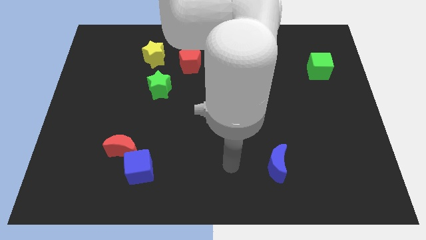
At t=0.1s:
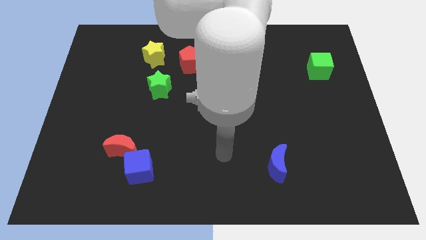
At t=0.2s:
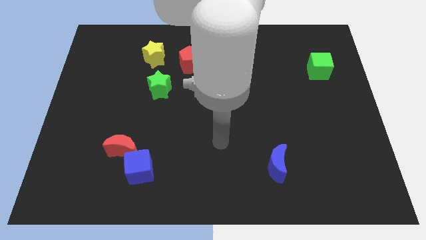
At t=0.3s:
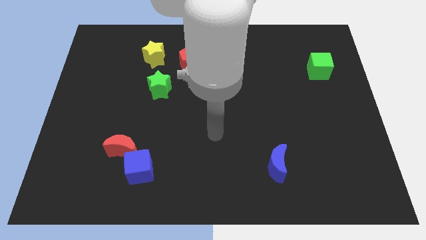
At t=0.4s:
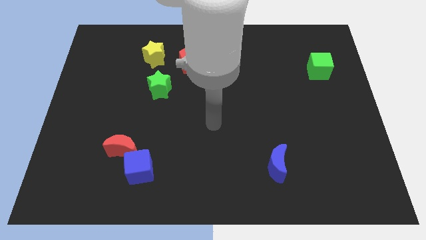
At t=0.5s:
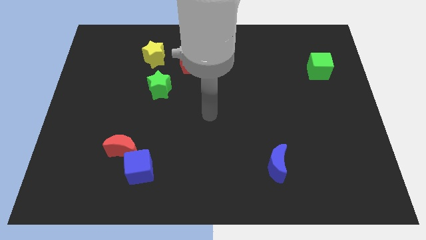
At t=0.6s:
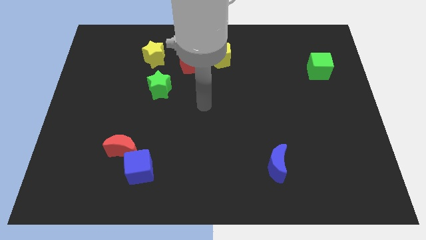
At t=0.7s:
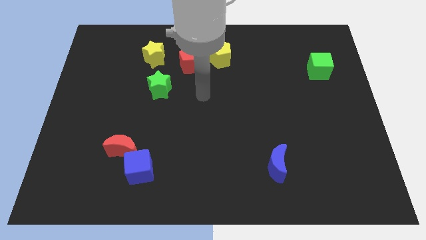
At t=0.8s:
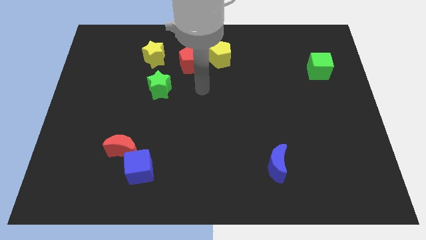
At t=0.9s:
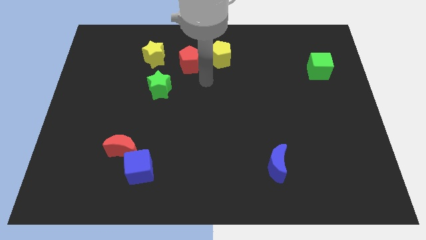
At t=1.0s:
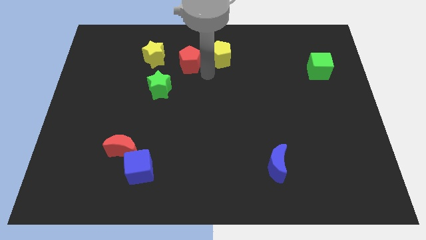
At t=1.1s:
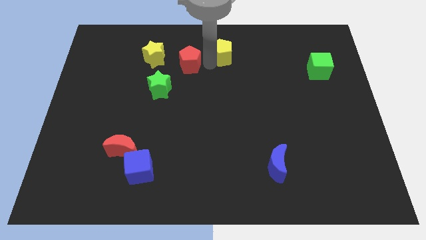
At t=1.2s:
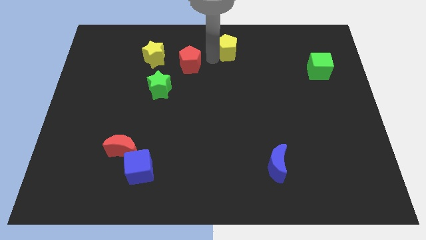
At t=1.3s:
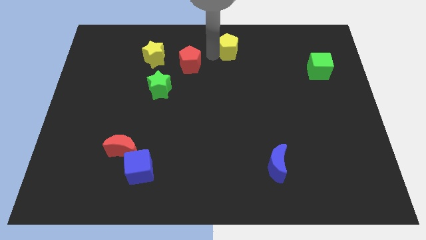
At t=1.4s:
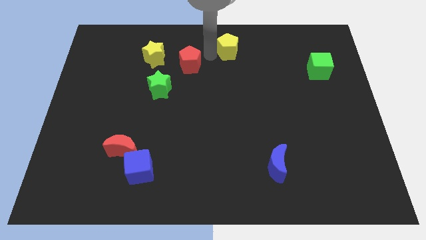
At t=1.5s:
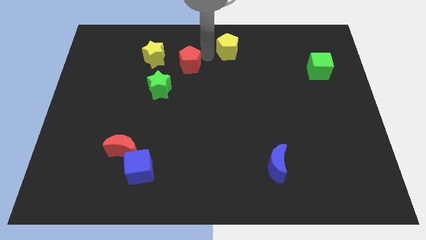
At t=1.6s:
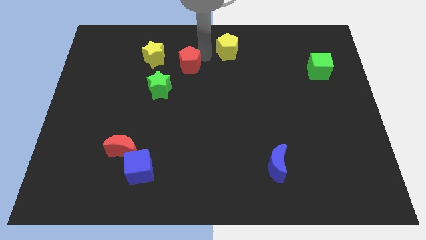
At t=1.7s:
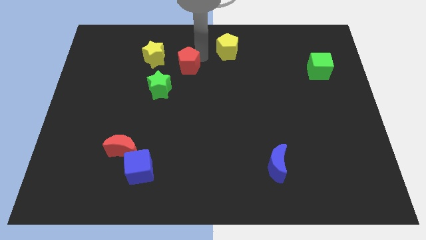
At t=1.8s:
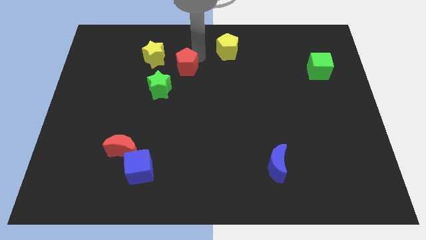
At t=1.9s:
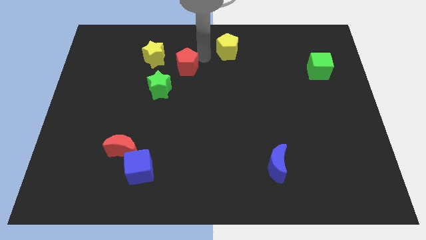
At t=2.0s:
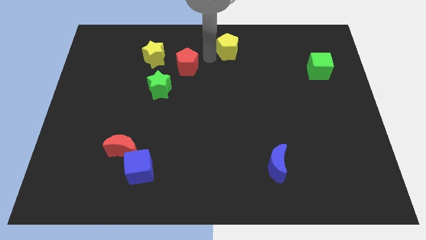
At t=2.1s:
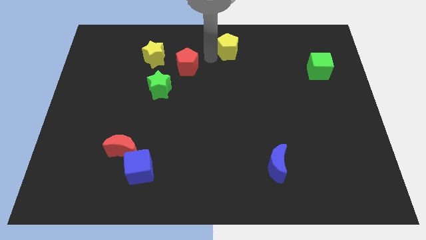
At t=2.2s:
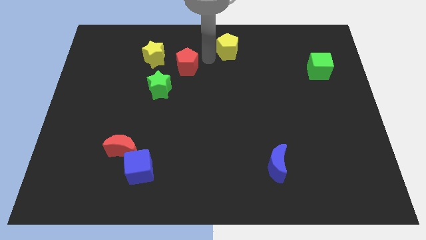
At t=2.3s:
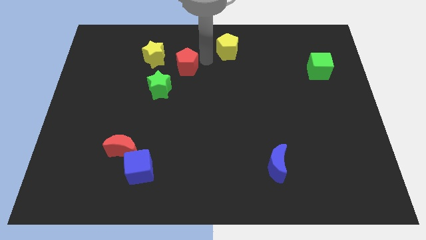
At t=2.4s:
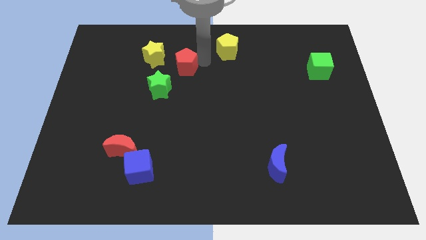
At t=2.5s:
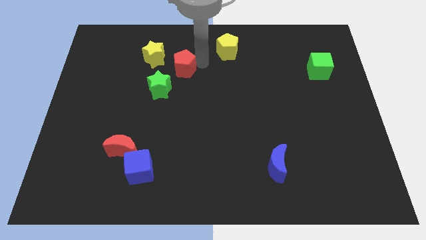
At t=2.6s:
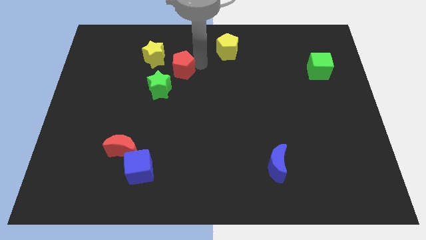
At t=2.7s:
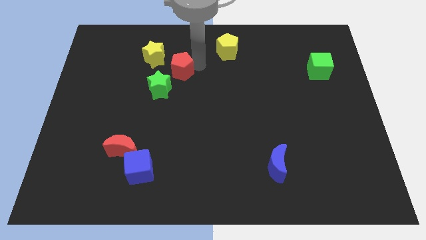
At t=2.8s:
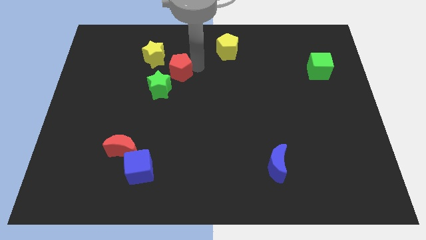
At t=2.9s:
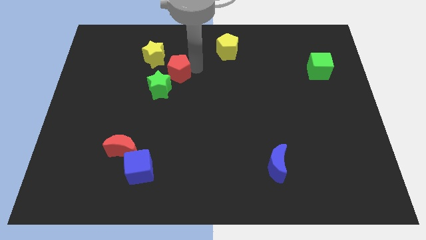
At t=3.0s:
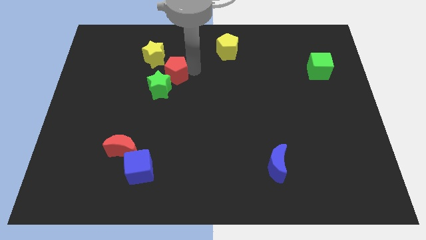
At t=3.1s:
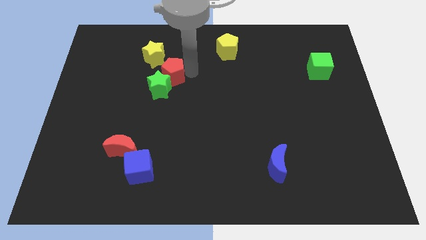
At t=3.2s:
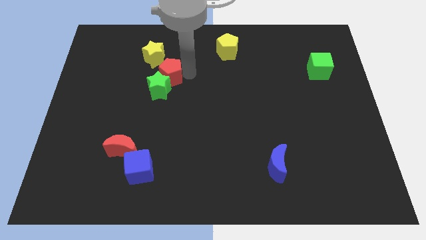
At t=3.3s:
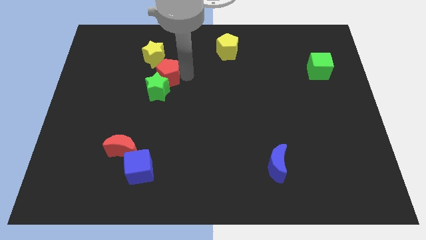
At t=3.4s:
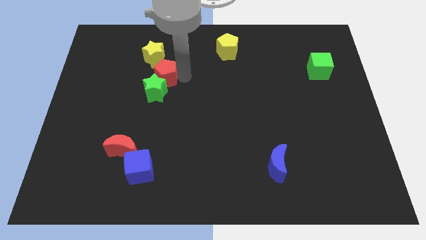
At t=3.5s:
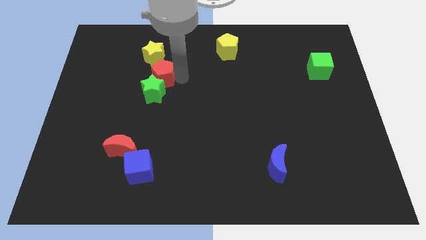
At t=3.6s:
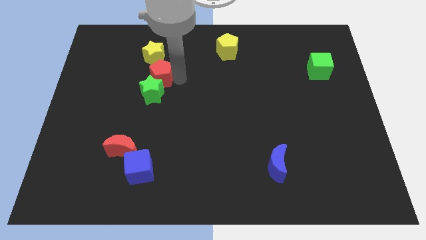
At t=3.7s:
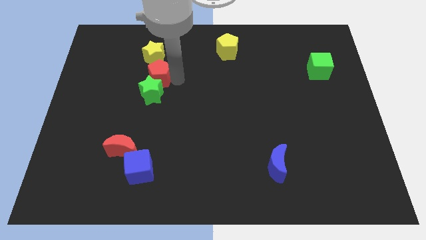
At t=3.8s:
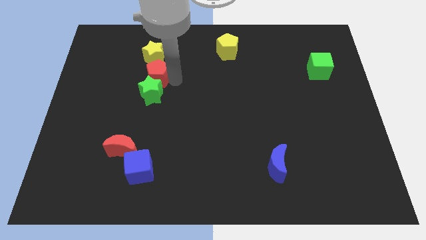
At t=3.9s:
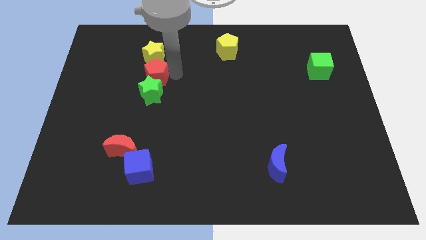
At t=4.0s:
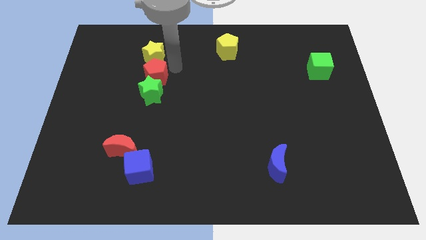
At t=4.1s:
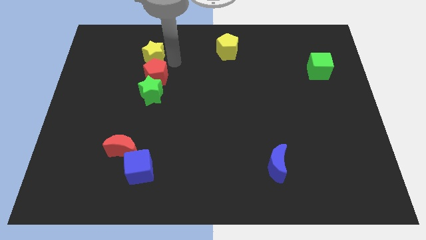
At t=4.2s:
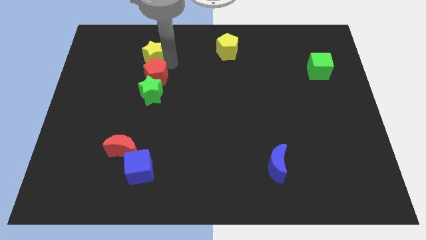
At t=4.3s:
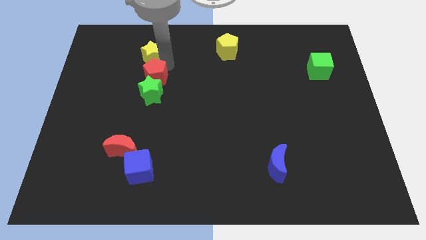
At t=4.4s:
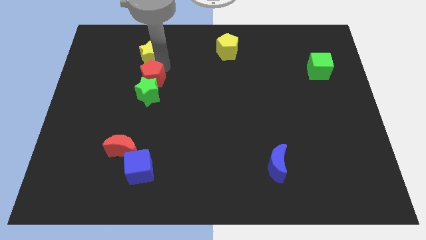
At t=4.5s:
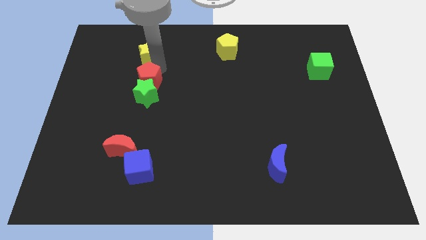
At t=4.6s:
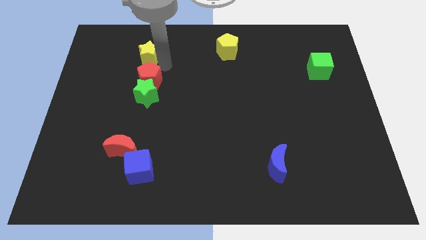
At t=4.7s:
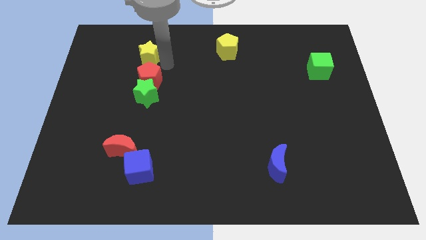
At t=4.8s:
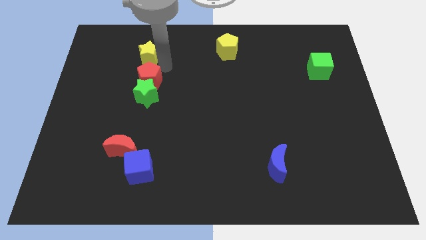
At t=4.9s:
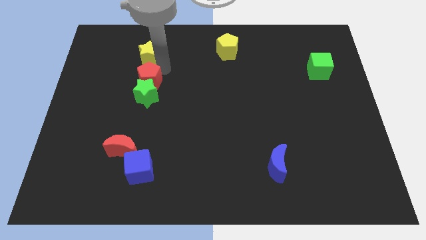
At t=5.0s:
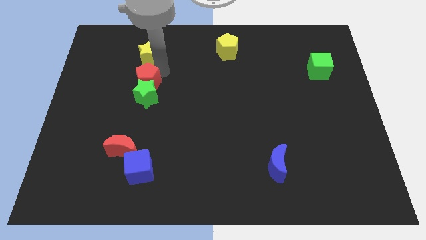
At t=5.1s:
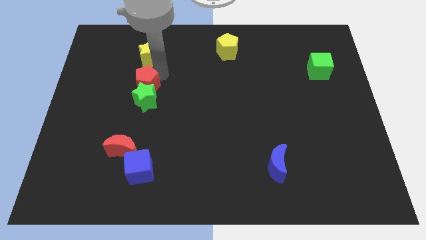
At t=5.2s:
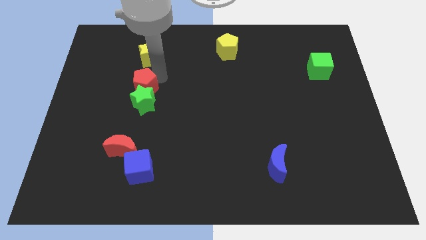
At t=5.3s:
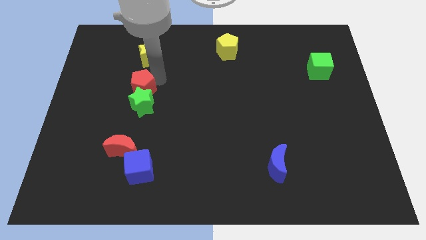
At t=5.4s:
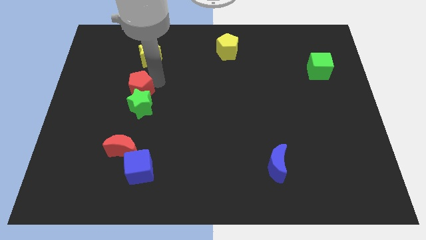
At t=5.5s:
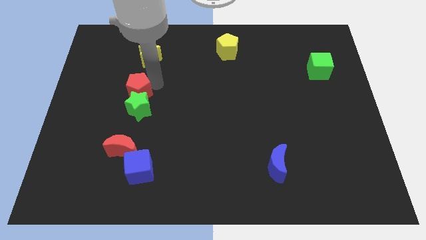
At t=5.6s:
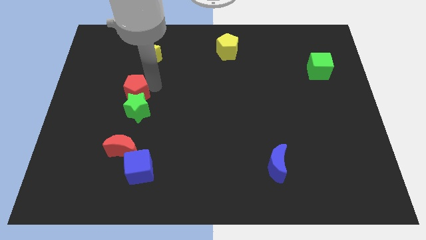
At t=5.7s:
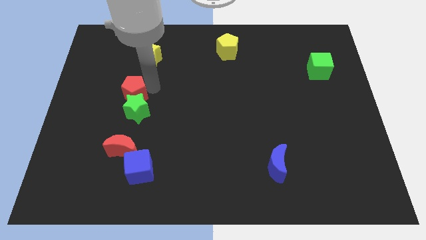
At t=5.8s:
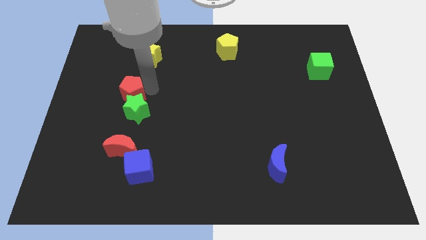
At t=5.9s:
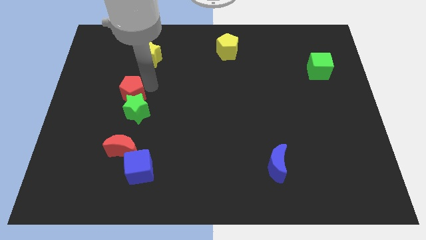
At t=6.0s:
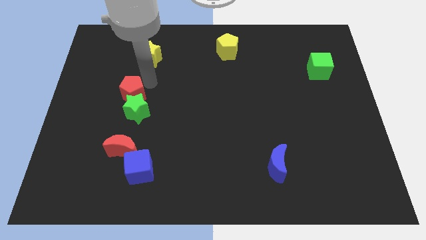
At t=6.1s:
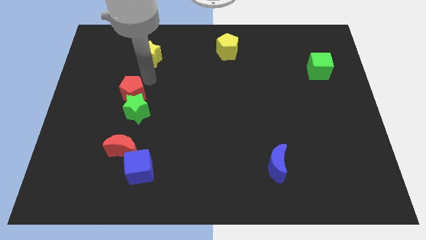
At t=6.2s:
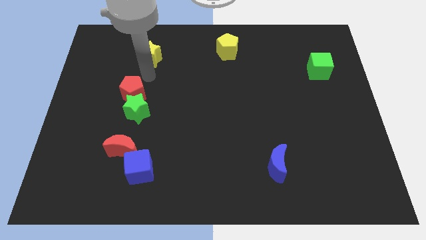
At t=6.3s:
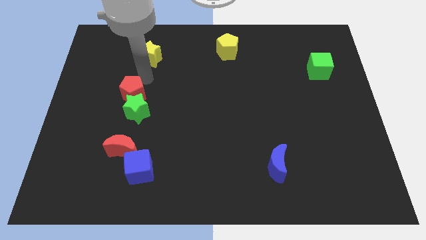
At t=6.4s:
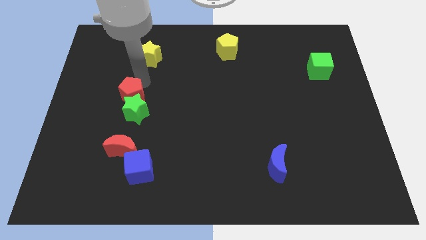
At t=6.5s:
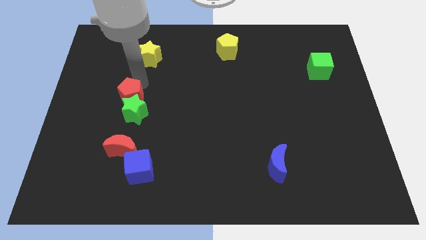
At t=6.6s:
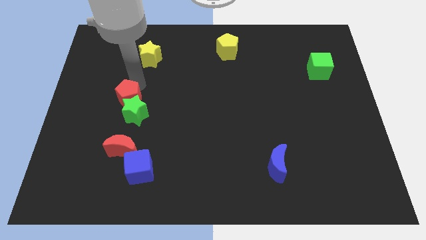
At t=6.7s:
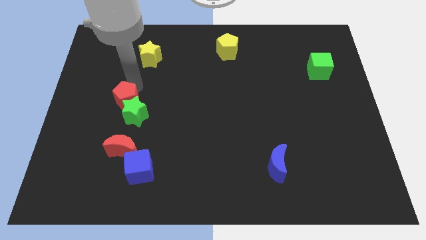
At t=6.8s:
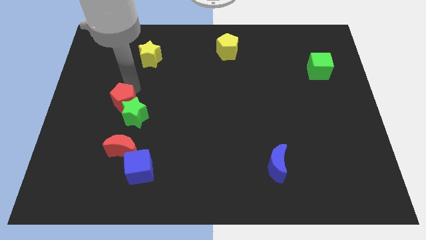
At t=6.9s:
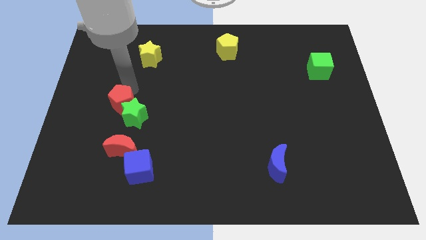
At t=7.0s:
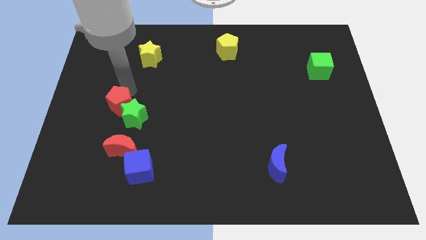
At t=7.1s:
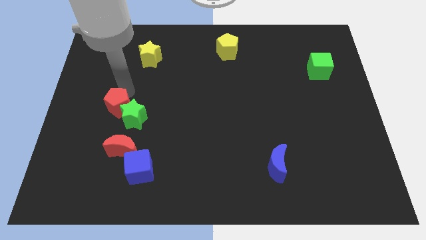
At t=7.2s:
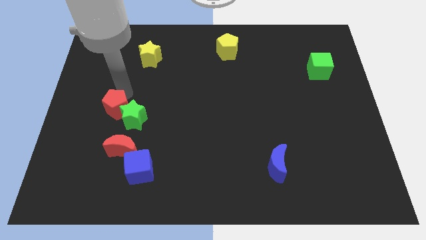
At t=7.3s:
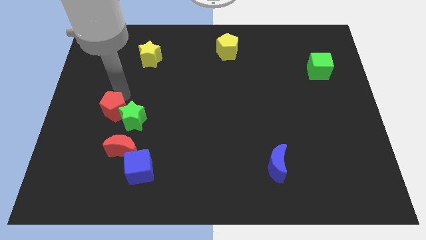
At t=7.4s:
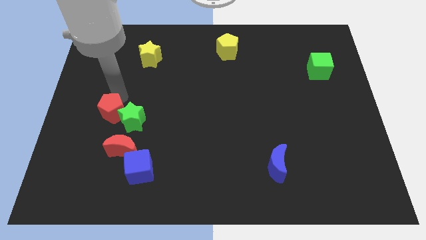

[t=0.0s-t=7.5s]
move the red pentagon to the top left of the red moon
